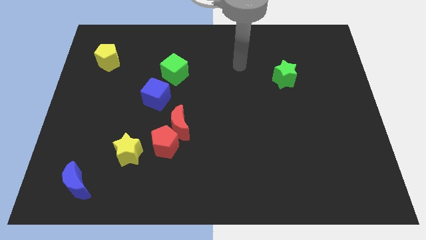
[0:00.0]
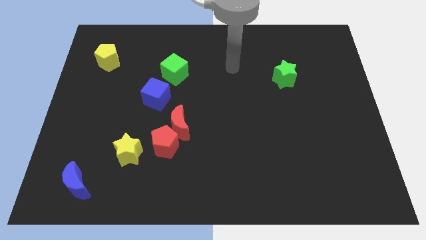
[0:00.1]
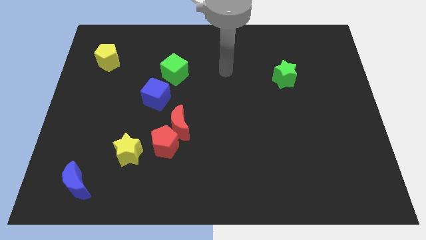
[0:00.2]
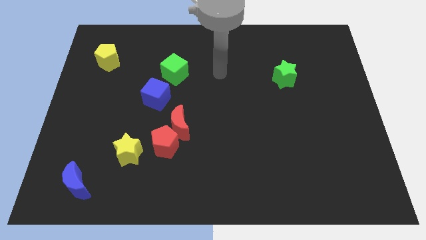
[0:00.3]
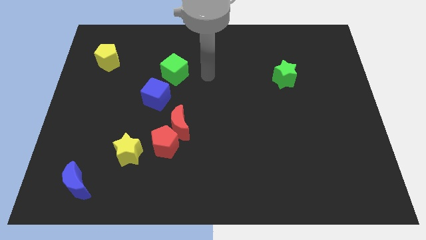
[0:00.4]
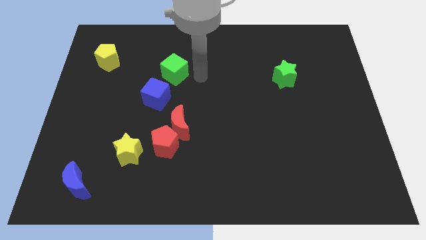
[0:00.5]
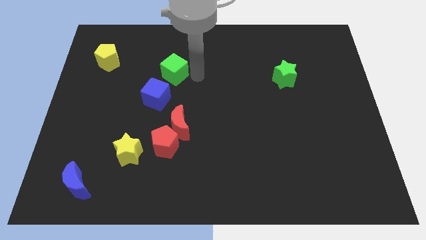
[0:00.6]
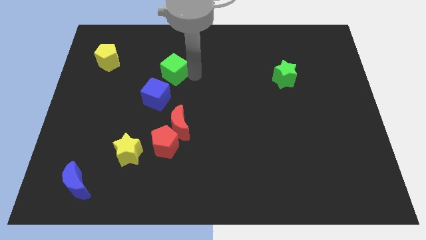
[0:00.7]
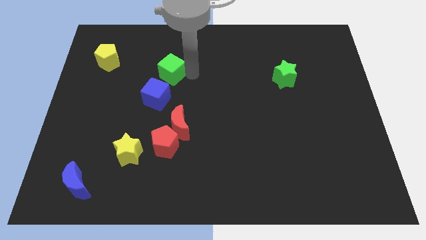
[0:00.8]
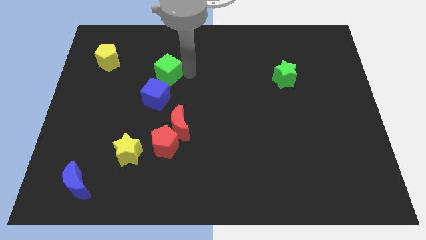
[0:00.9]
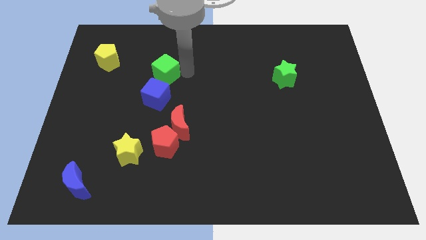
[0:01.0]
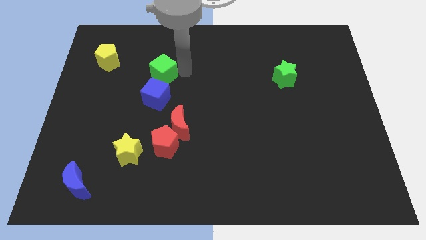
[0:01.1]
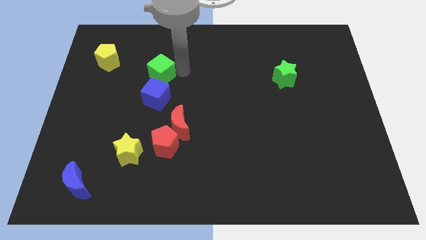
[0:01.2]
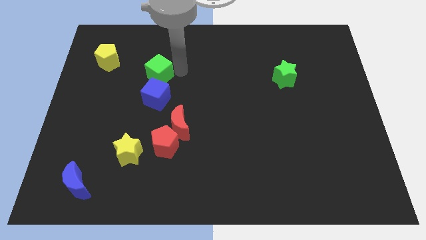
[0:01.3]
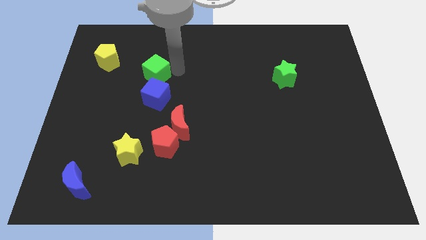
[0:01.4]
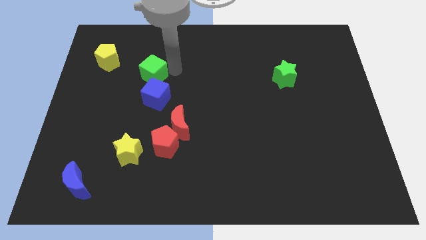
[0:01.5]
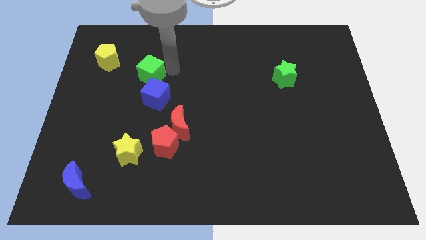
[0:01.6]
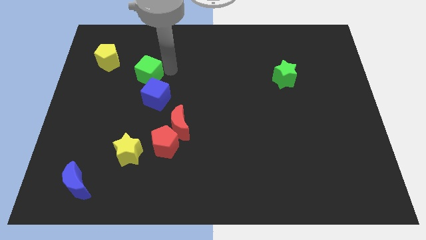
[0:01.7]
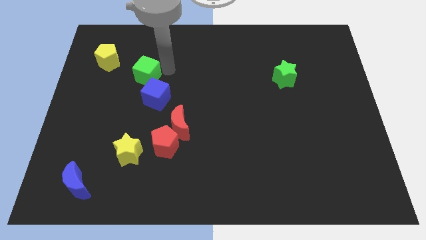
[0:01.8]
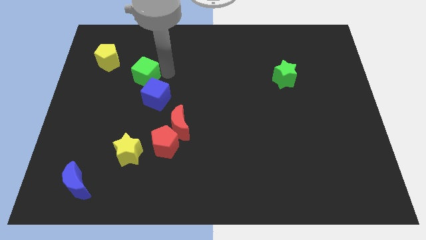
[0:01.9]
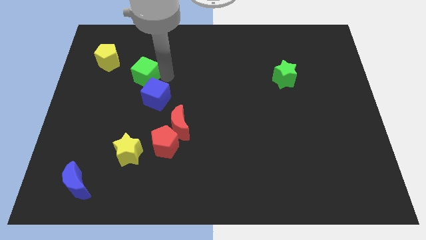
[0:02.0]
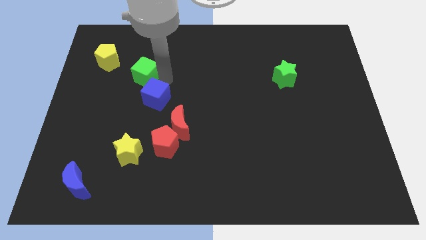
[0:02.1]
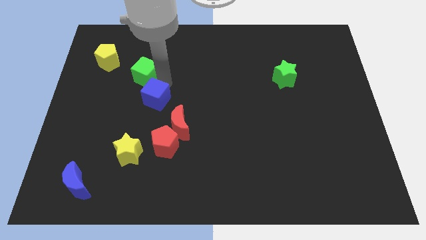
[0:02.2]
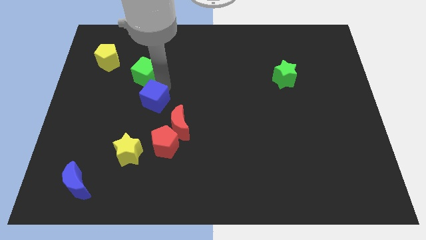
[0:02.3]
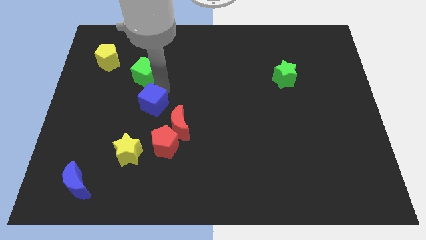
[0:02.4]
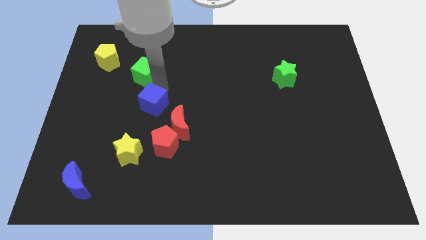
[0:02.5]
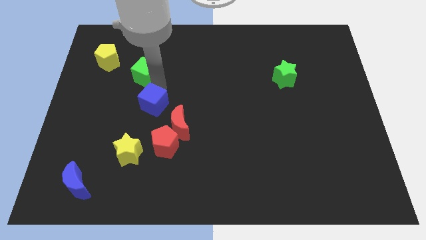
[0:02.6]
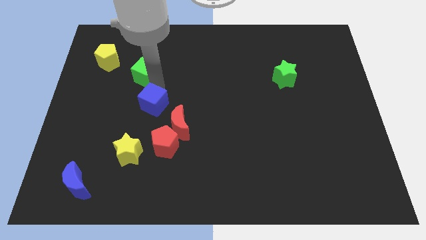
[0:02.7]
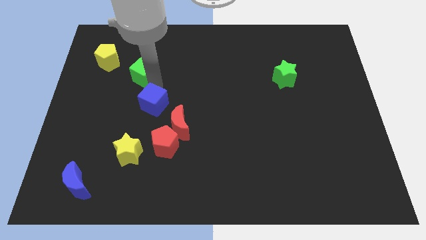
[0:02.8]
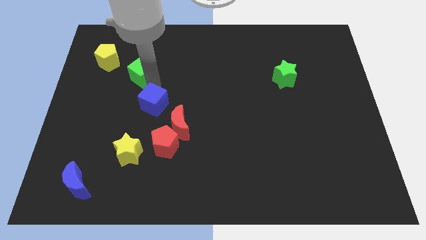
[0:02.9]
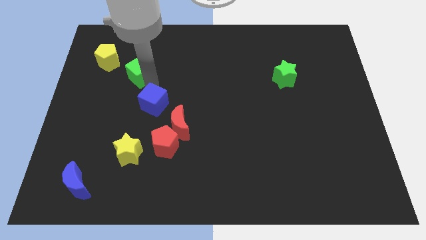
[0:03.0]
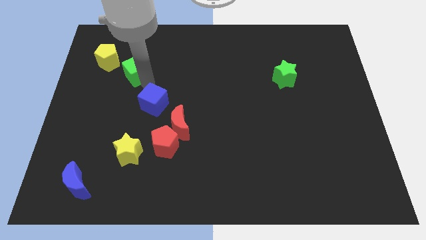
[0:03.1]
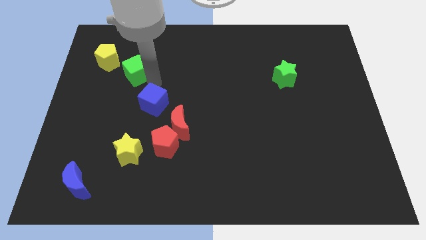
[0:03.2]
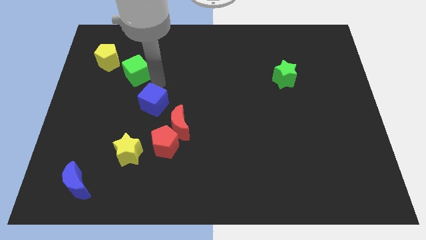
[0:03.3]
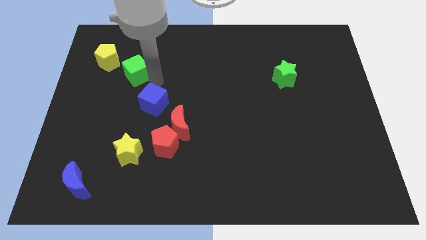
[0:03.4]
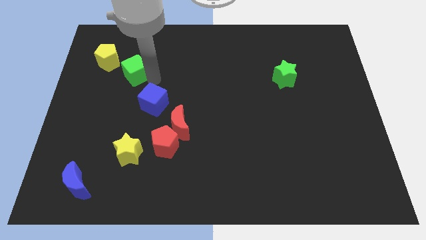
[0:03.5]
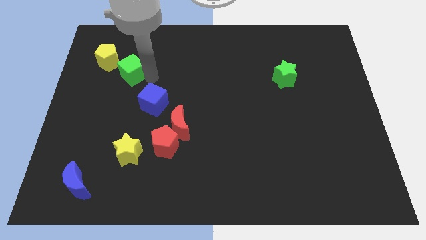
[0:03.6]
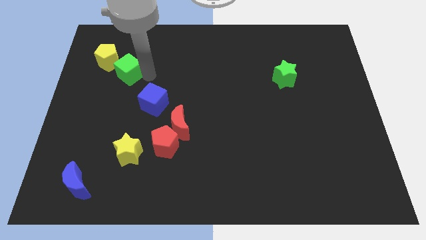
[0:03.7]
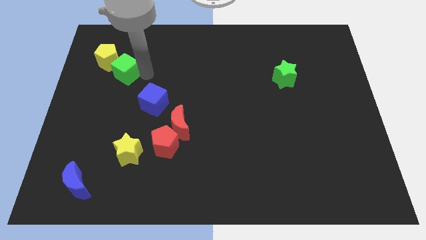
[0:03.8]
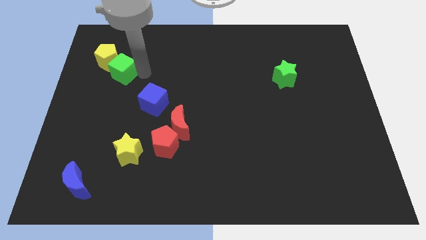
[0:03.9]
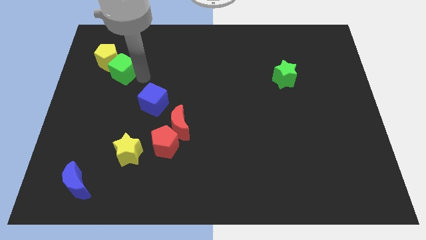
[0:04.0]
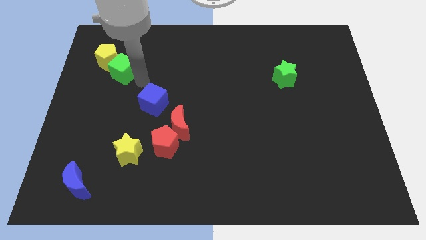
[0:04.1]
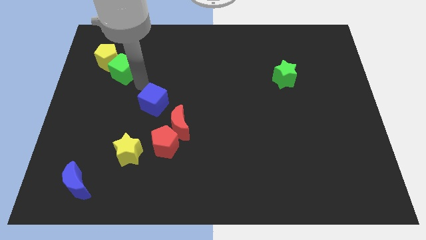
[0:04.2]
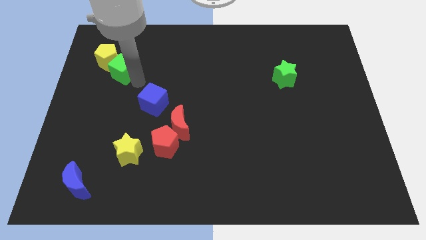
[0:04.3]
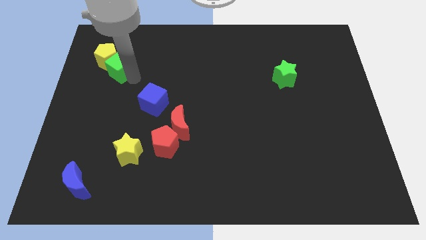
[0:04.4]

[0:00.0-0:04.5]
put the green cube towards the yellow pentagon

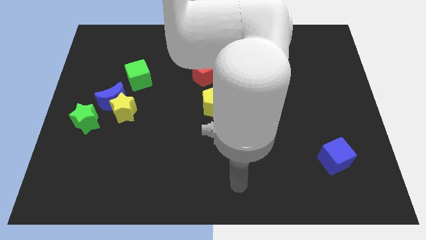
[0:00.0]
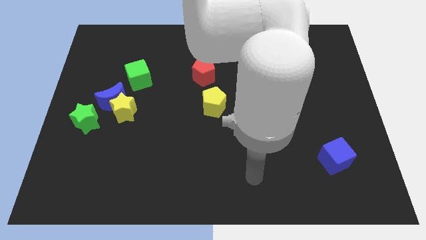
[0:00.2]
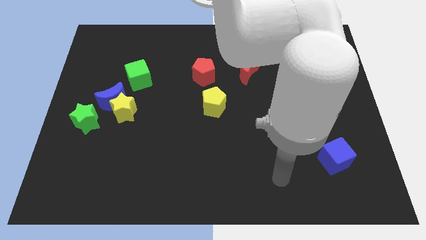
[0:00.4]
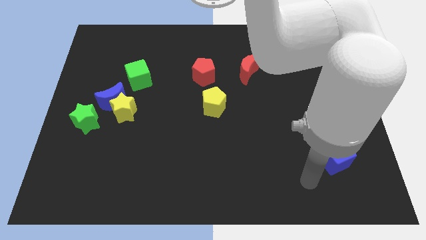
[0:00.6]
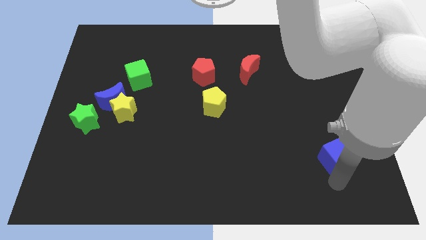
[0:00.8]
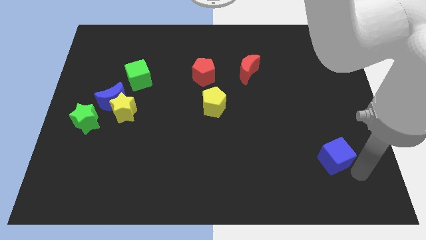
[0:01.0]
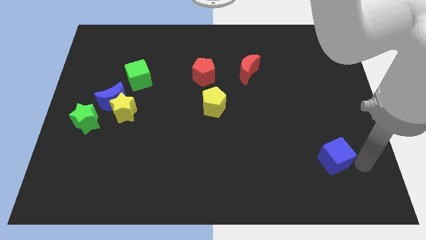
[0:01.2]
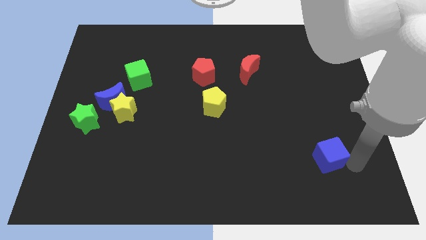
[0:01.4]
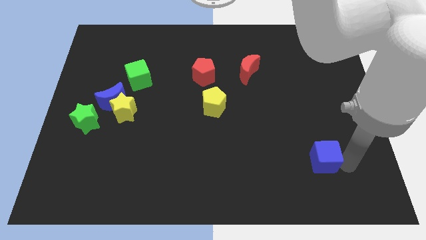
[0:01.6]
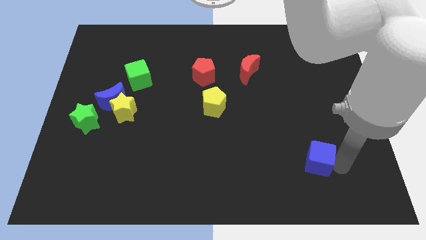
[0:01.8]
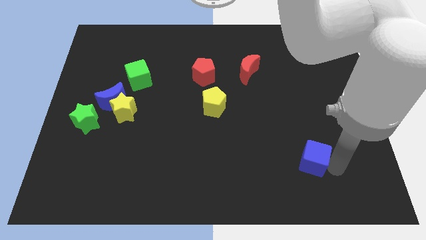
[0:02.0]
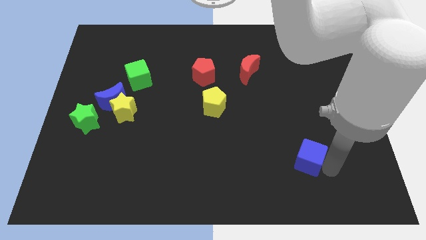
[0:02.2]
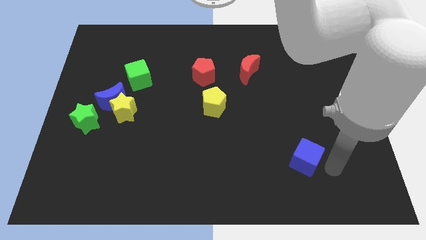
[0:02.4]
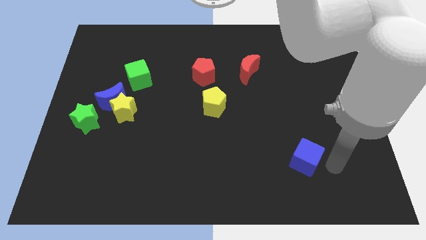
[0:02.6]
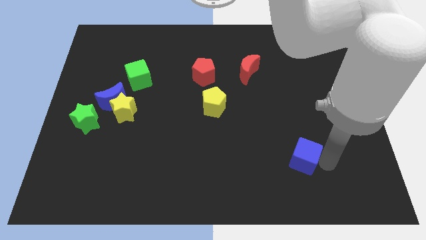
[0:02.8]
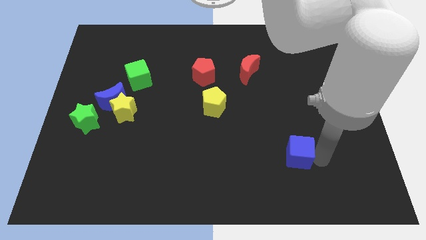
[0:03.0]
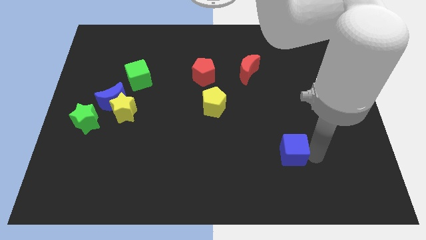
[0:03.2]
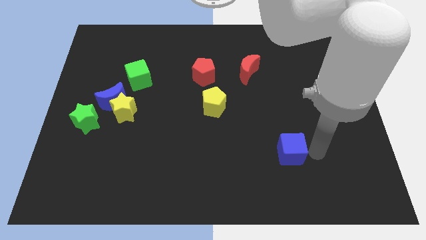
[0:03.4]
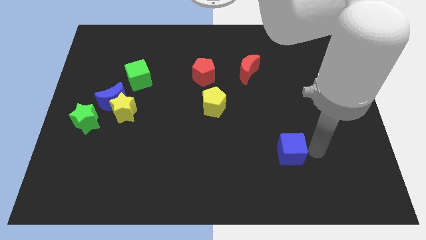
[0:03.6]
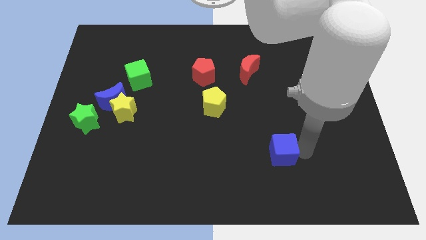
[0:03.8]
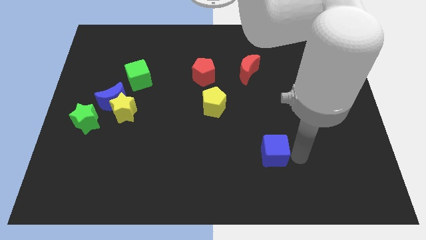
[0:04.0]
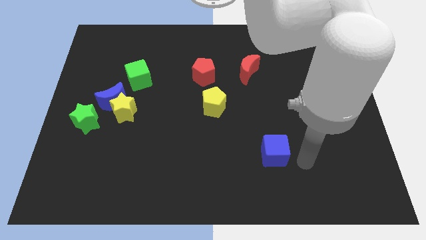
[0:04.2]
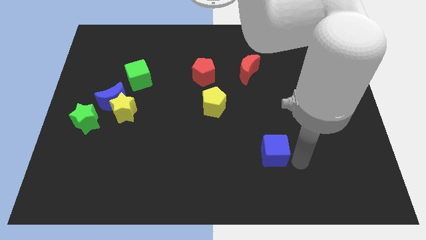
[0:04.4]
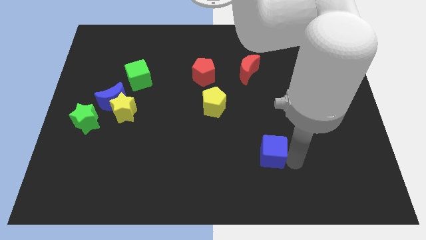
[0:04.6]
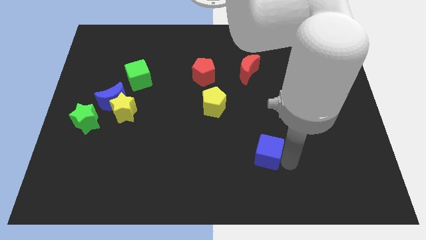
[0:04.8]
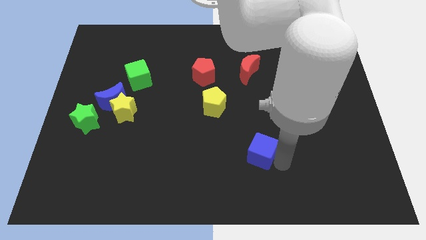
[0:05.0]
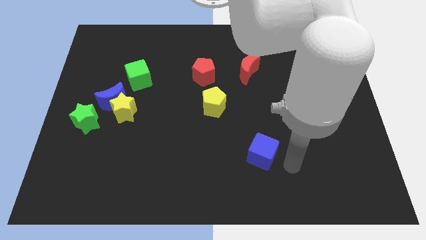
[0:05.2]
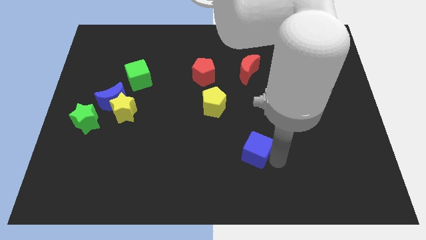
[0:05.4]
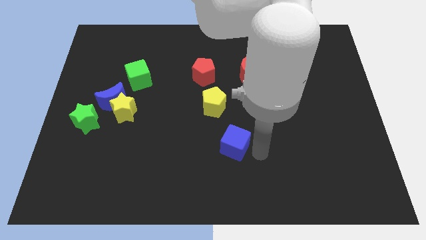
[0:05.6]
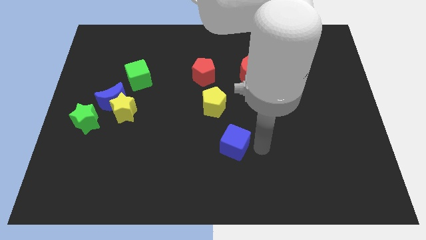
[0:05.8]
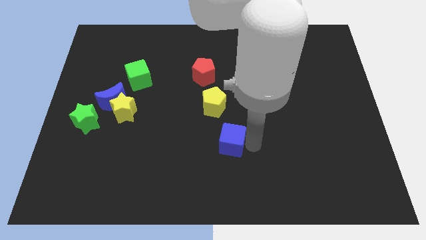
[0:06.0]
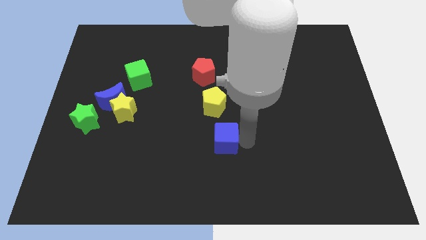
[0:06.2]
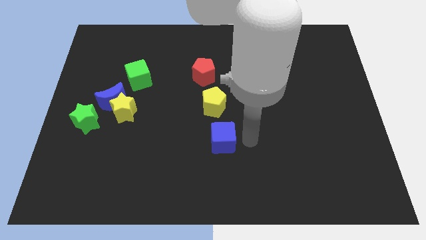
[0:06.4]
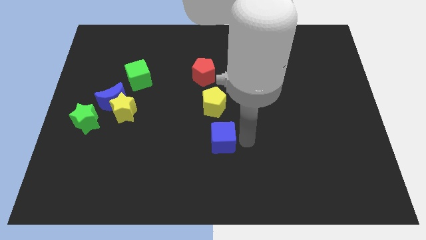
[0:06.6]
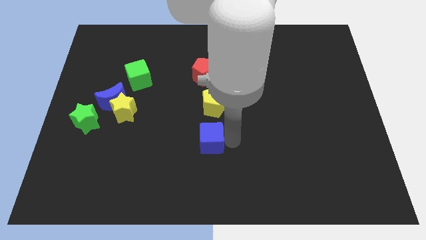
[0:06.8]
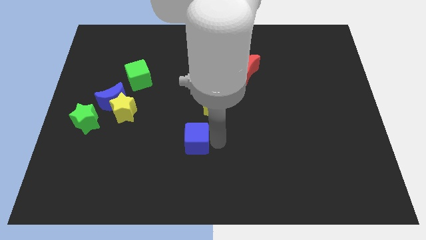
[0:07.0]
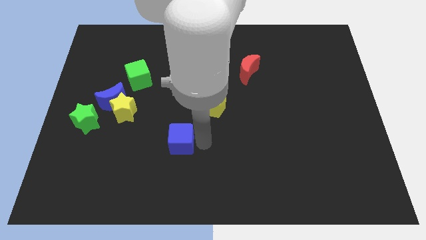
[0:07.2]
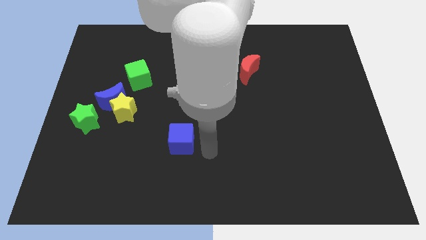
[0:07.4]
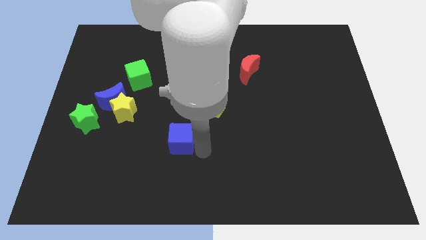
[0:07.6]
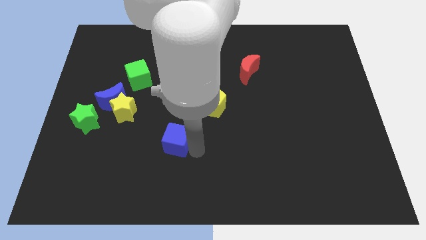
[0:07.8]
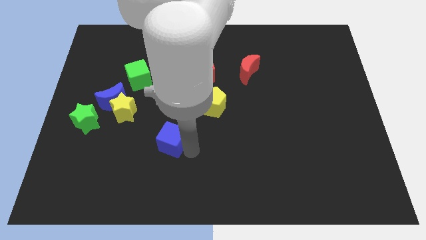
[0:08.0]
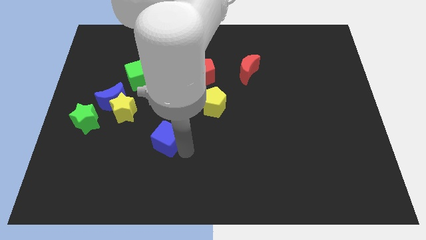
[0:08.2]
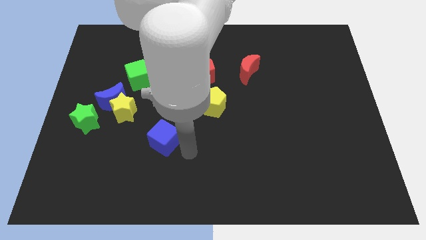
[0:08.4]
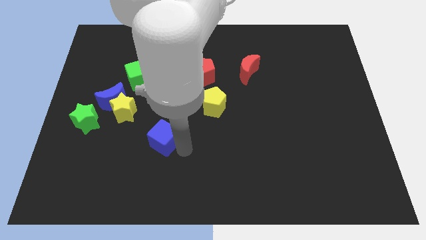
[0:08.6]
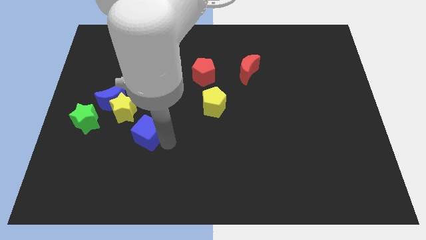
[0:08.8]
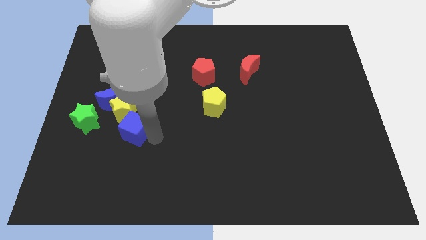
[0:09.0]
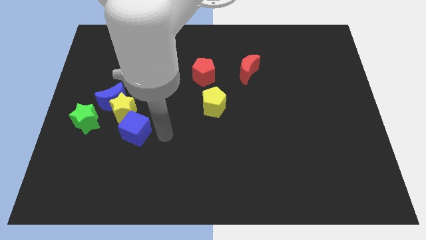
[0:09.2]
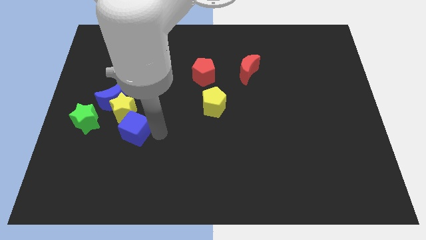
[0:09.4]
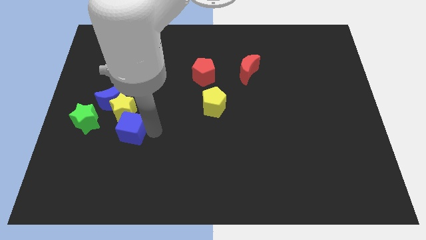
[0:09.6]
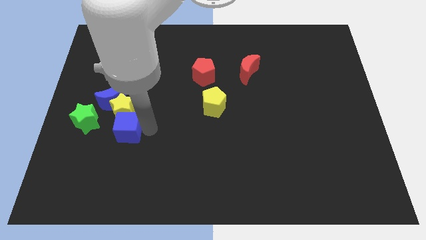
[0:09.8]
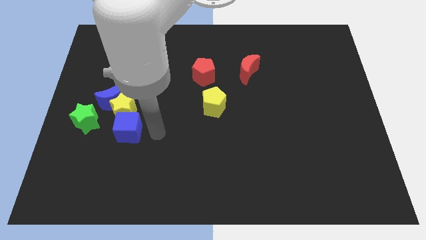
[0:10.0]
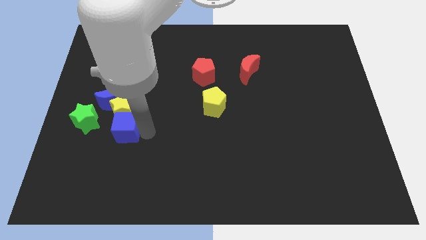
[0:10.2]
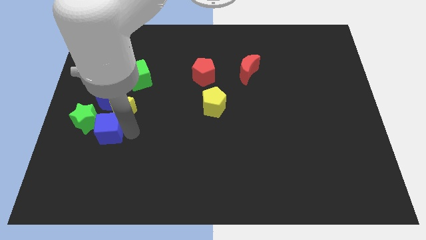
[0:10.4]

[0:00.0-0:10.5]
put the blue cube next to the green star
